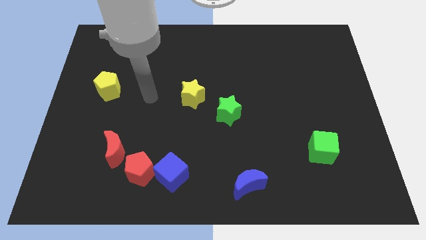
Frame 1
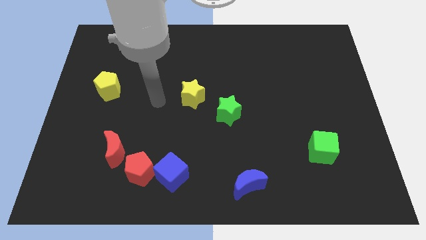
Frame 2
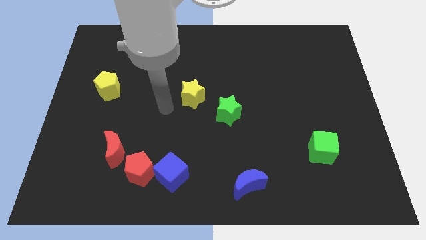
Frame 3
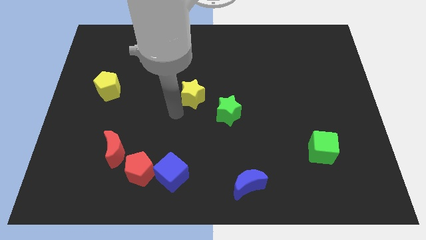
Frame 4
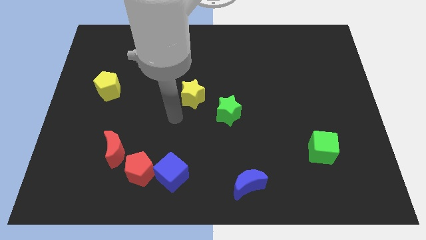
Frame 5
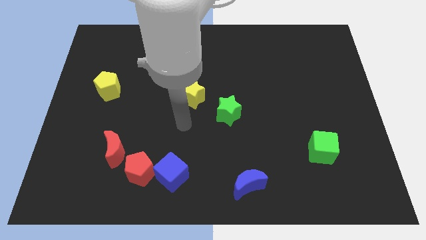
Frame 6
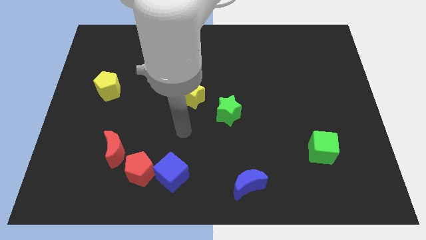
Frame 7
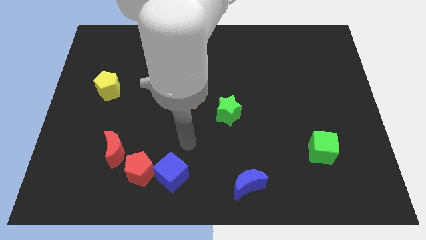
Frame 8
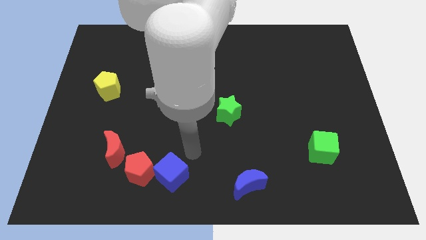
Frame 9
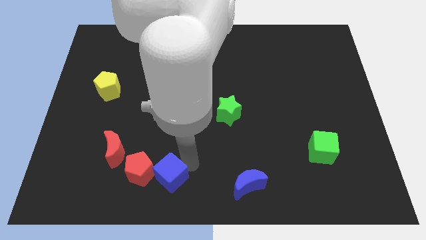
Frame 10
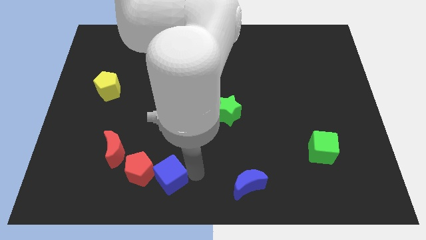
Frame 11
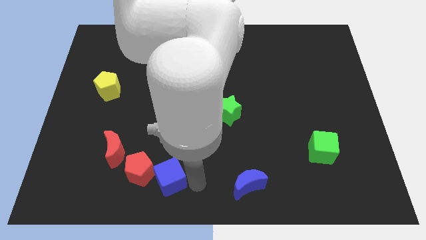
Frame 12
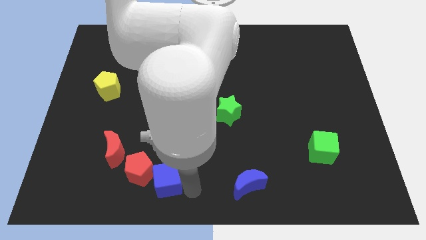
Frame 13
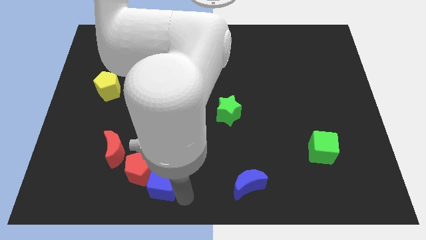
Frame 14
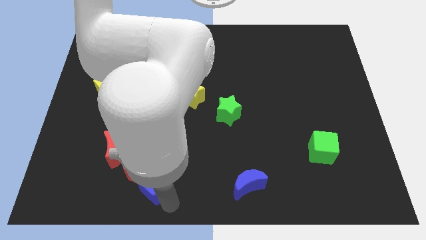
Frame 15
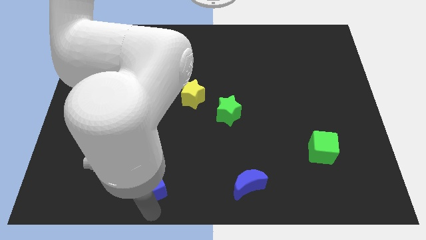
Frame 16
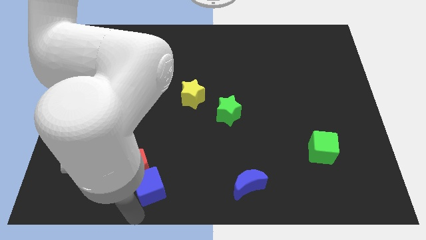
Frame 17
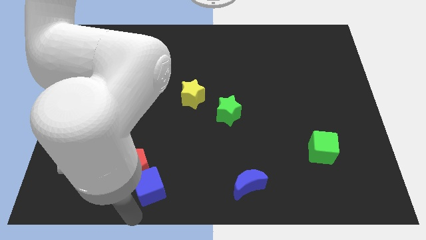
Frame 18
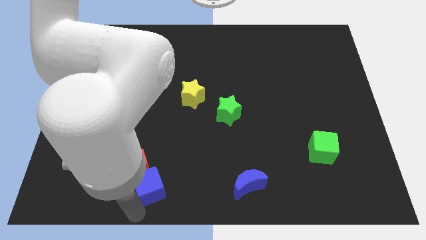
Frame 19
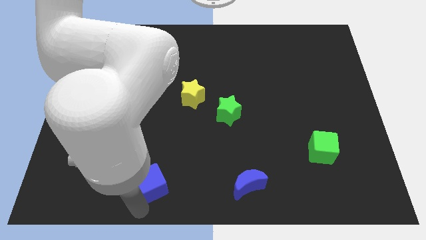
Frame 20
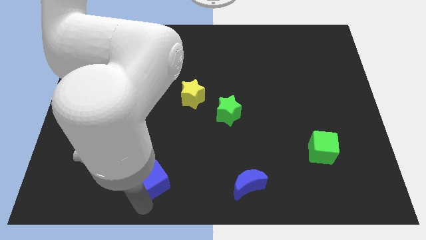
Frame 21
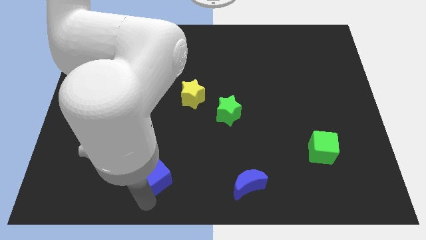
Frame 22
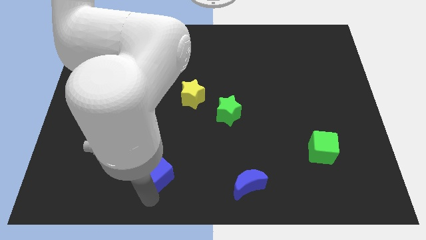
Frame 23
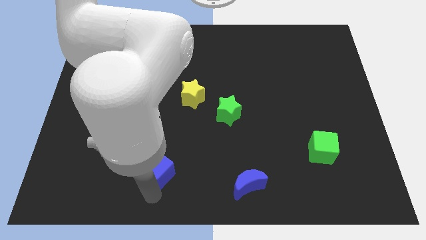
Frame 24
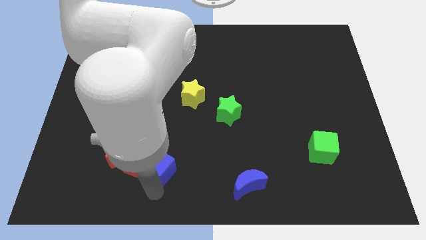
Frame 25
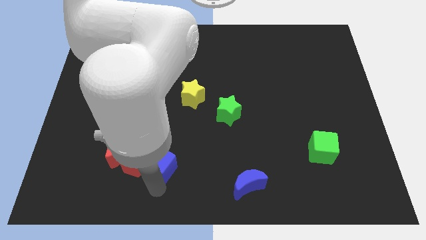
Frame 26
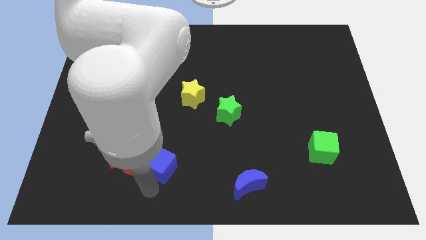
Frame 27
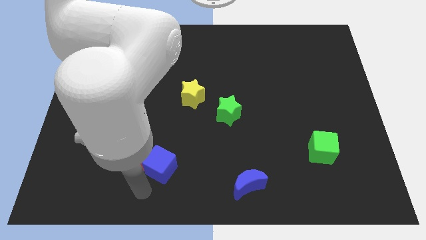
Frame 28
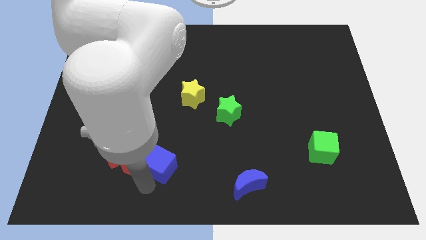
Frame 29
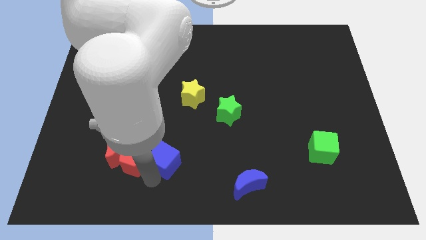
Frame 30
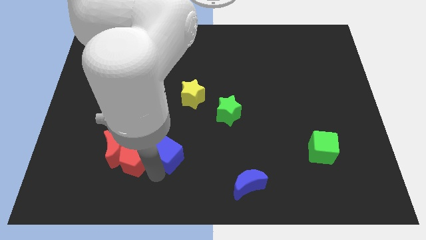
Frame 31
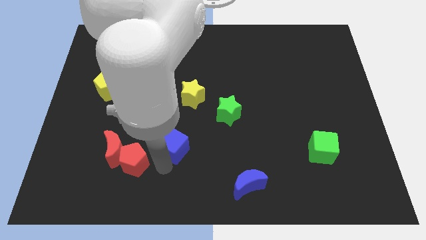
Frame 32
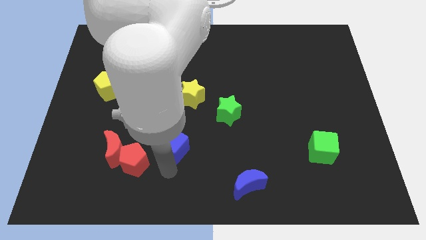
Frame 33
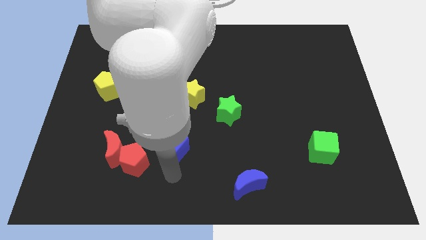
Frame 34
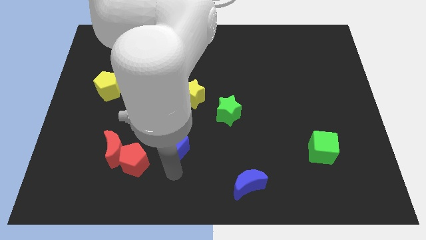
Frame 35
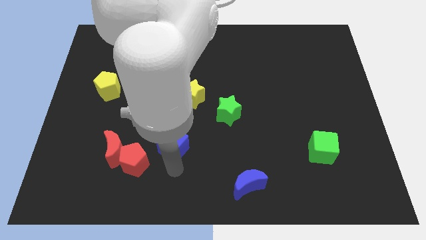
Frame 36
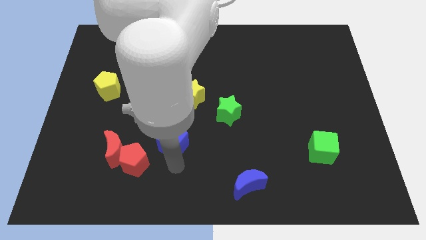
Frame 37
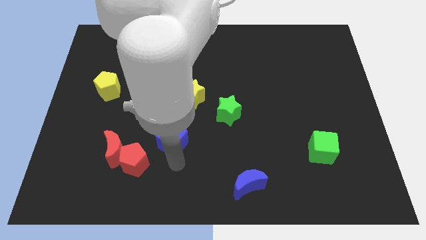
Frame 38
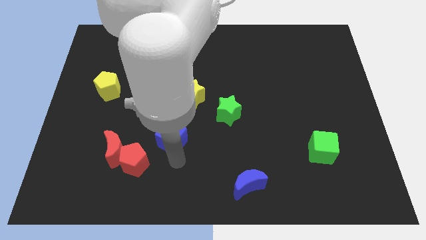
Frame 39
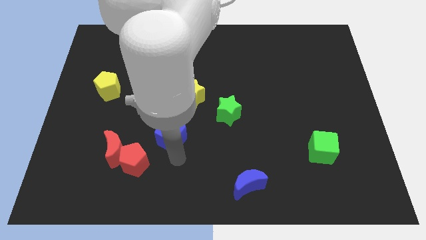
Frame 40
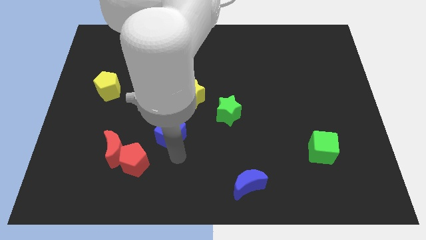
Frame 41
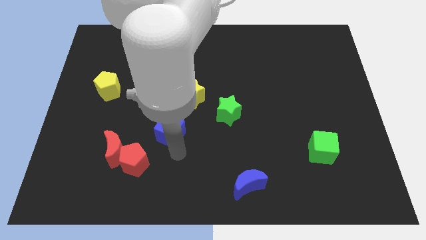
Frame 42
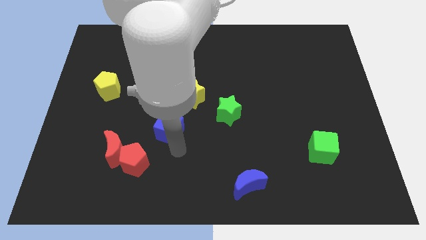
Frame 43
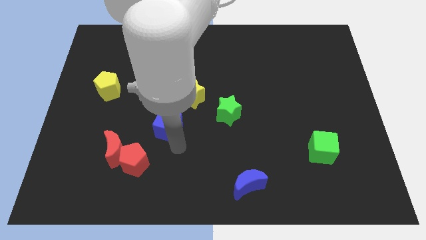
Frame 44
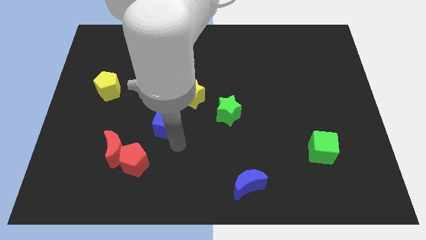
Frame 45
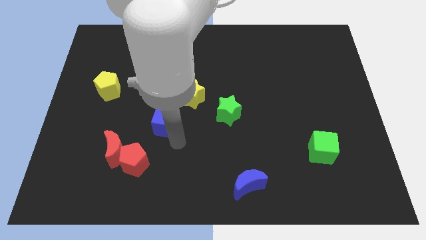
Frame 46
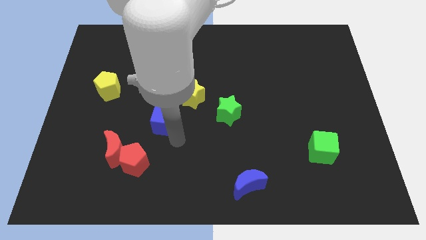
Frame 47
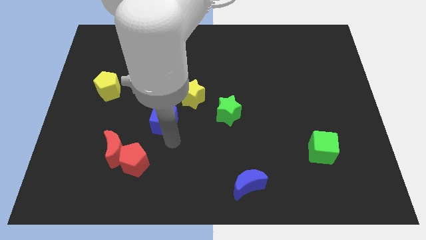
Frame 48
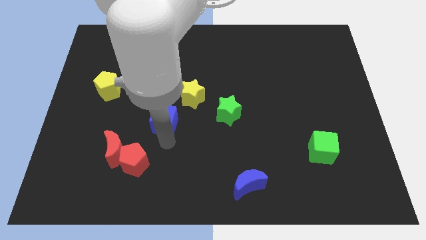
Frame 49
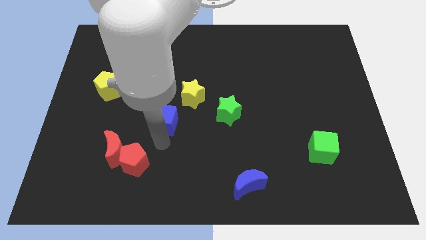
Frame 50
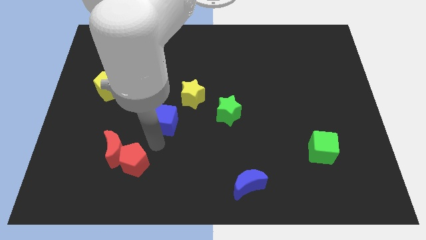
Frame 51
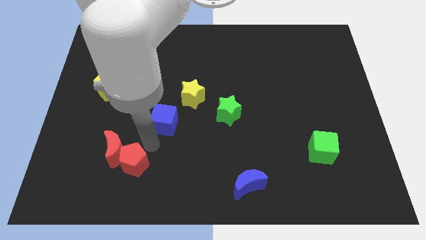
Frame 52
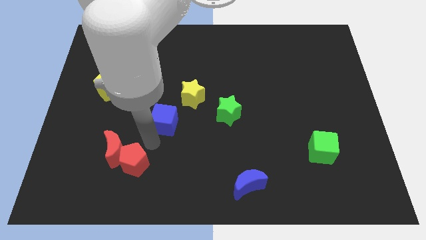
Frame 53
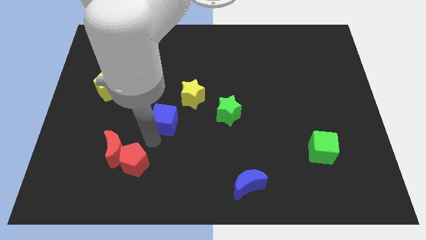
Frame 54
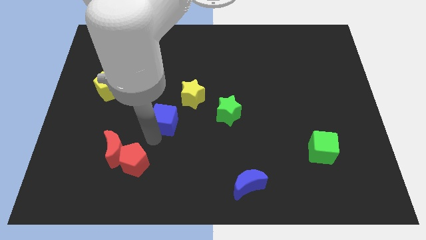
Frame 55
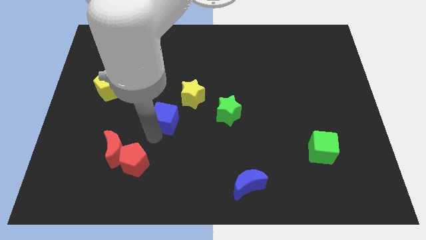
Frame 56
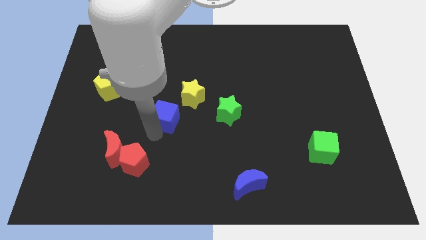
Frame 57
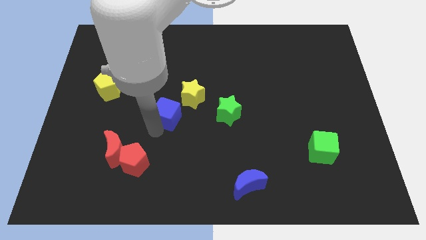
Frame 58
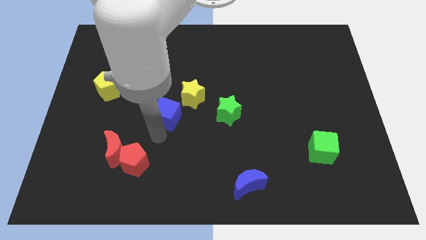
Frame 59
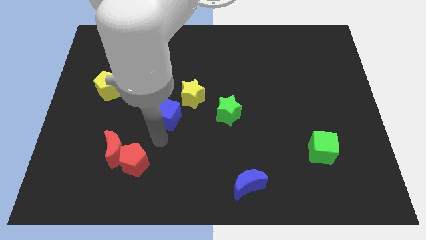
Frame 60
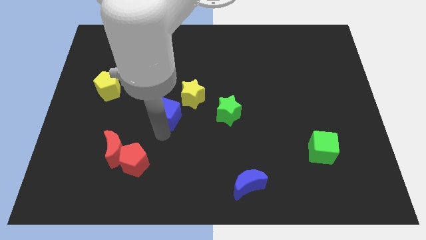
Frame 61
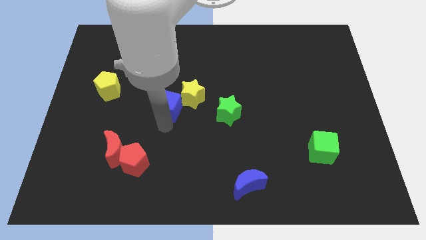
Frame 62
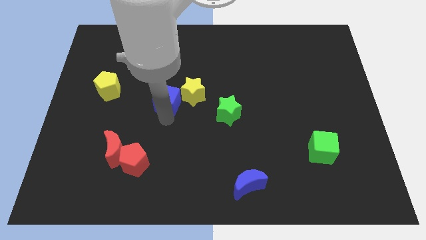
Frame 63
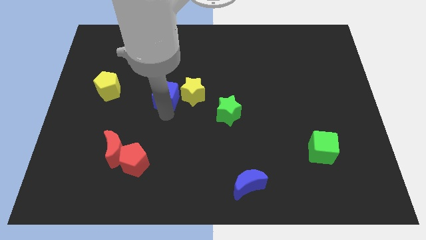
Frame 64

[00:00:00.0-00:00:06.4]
move the blue cube upwards

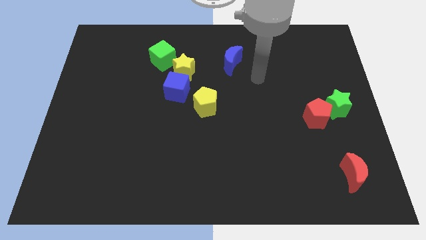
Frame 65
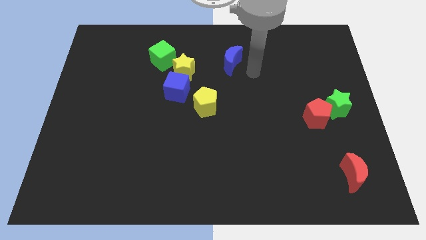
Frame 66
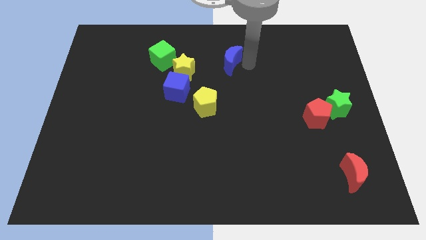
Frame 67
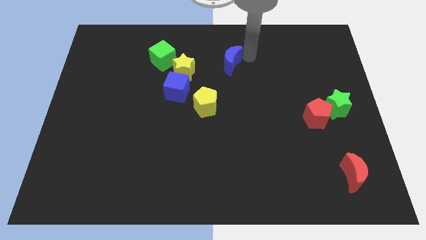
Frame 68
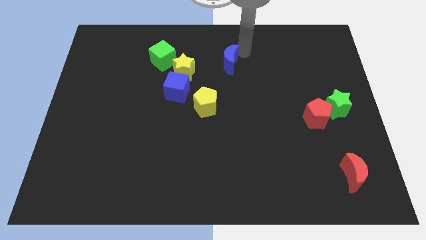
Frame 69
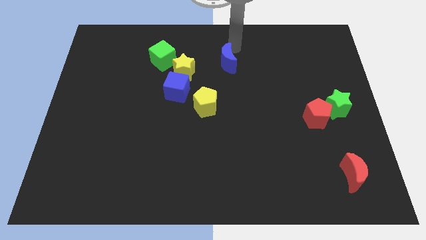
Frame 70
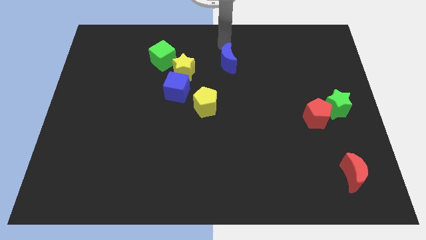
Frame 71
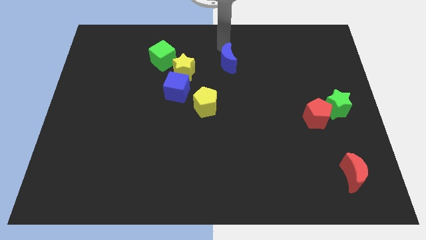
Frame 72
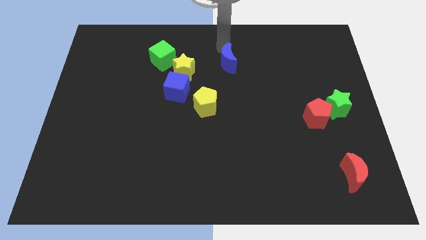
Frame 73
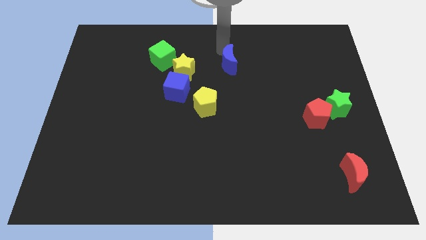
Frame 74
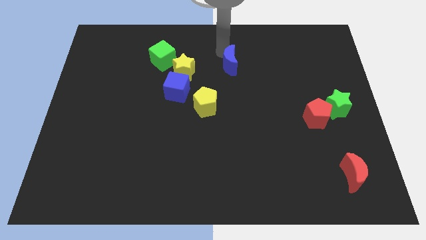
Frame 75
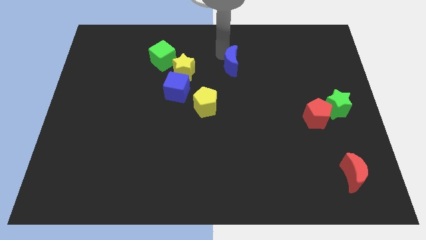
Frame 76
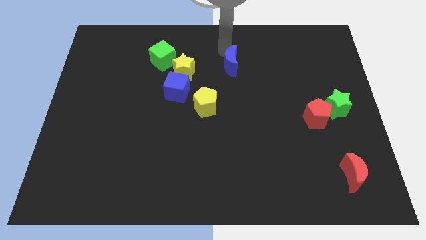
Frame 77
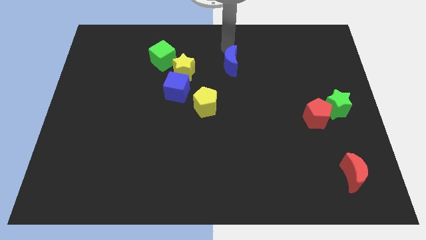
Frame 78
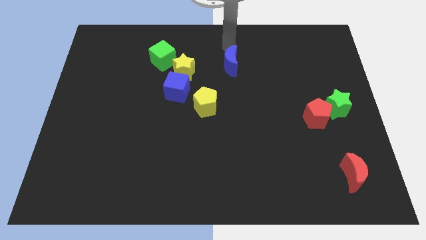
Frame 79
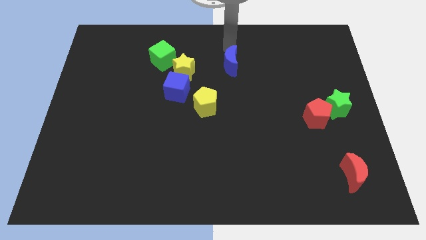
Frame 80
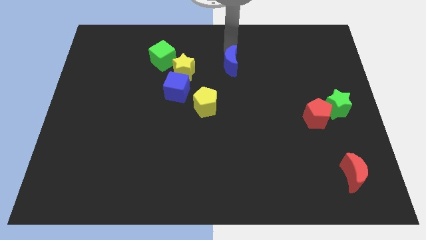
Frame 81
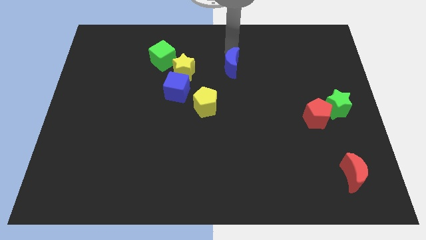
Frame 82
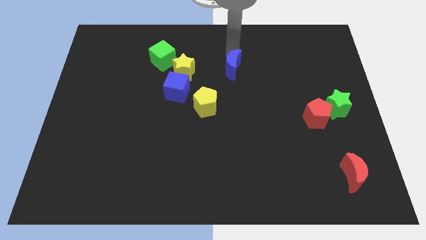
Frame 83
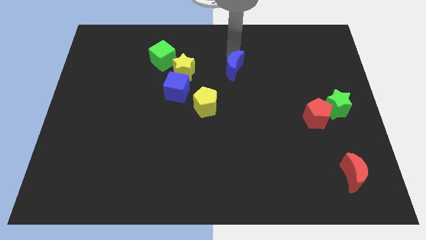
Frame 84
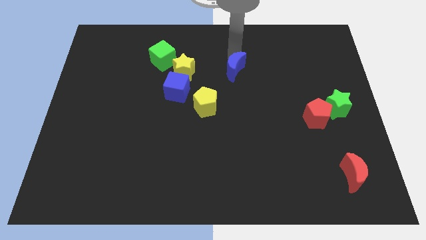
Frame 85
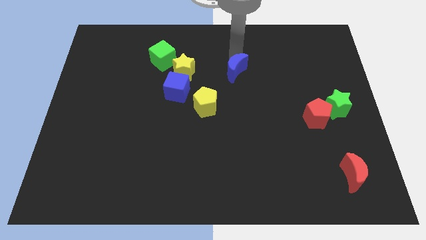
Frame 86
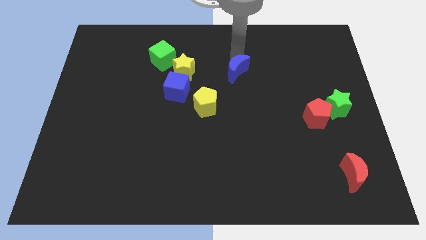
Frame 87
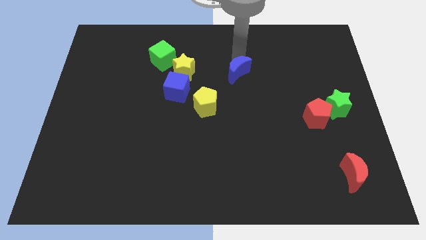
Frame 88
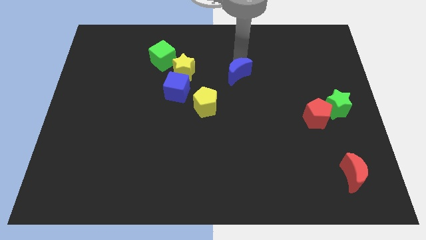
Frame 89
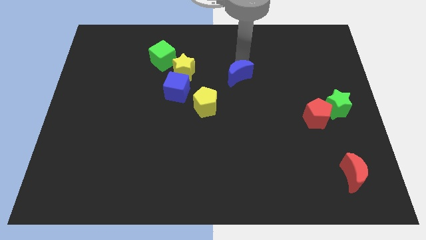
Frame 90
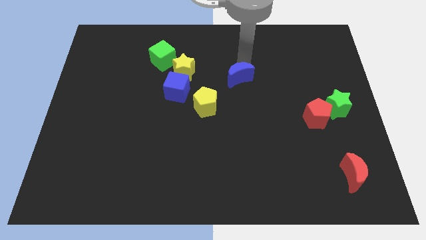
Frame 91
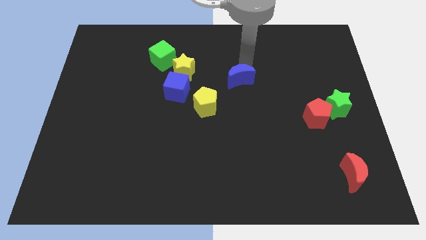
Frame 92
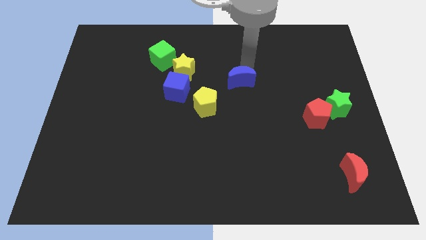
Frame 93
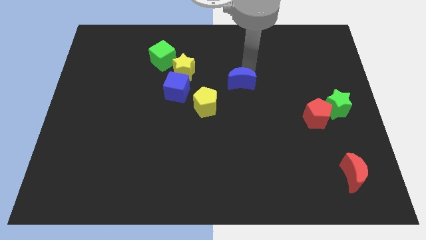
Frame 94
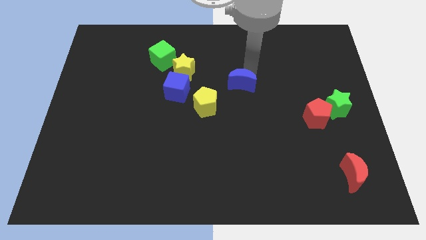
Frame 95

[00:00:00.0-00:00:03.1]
slightly slide the blue moon down
